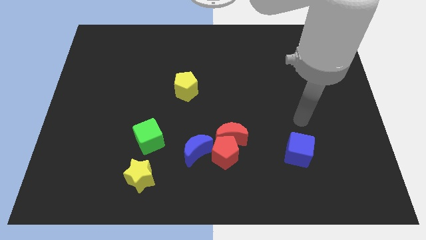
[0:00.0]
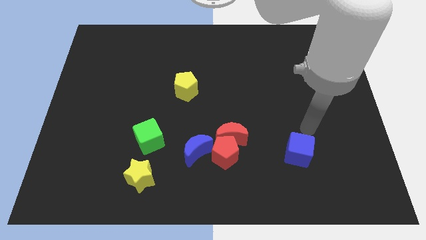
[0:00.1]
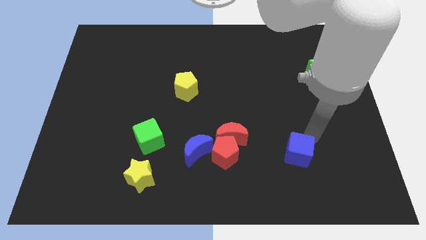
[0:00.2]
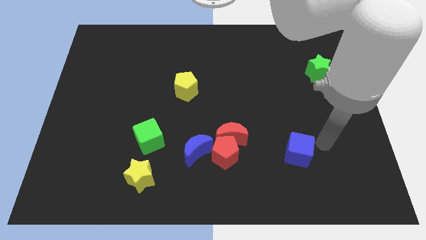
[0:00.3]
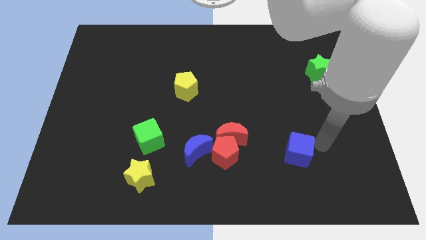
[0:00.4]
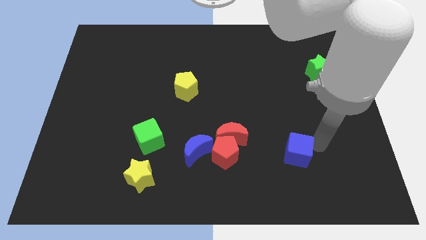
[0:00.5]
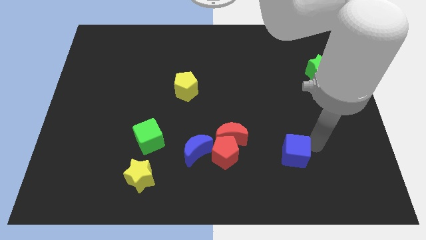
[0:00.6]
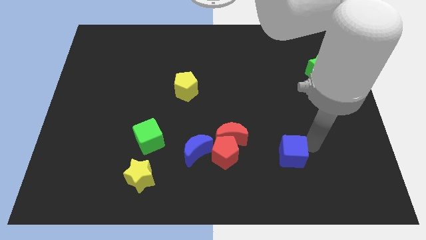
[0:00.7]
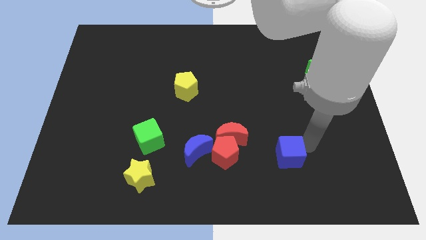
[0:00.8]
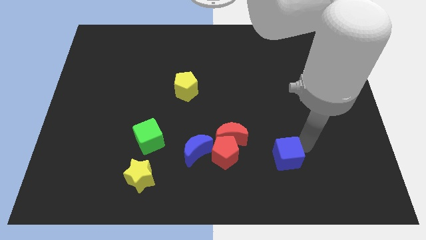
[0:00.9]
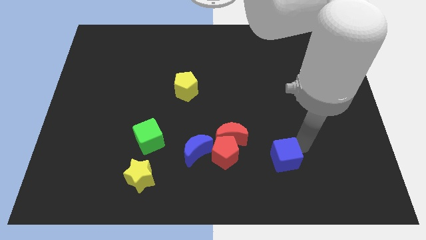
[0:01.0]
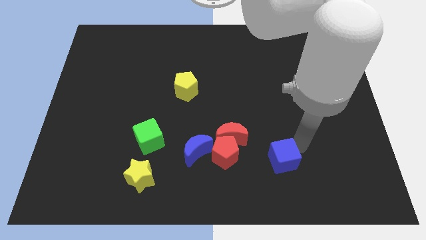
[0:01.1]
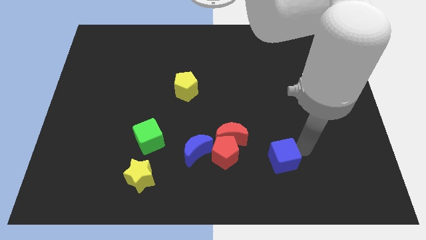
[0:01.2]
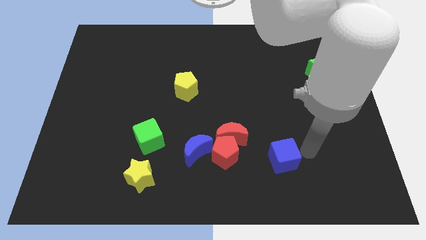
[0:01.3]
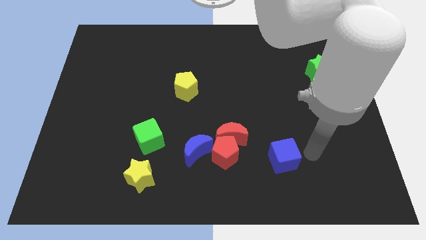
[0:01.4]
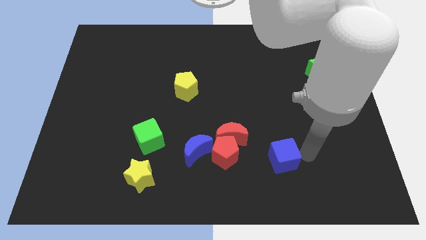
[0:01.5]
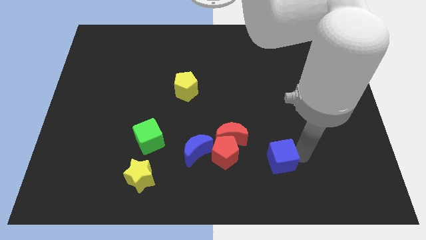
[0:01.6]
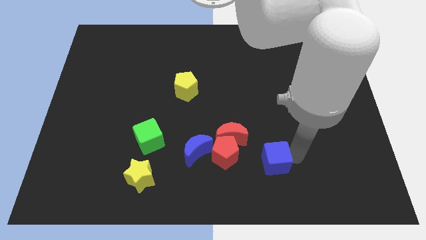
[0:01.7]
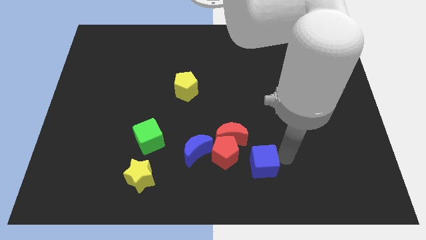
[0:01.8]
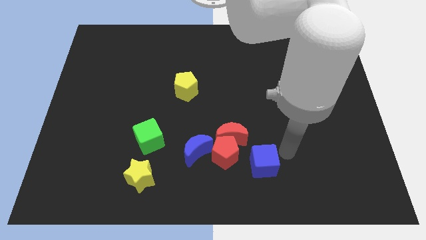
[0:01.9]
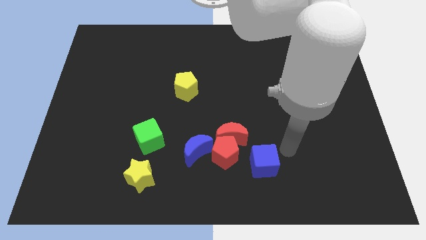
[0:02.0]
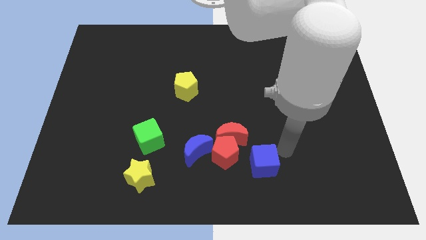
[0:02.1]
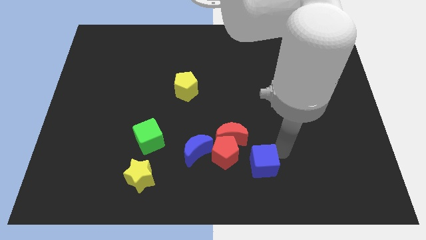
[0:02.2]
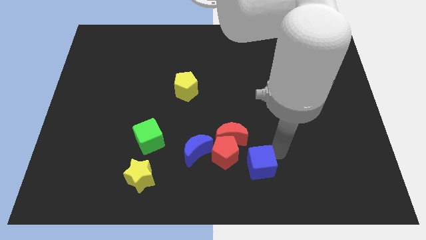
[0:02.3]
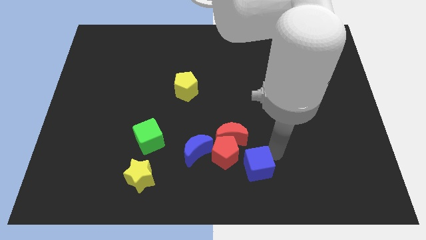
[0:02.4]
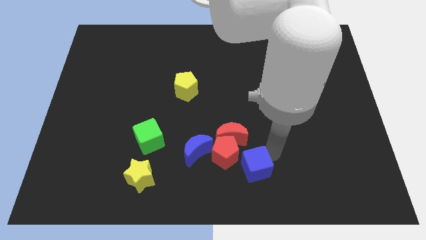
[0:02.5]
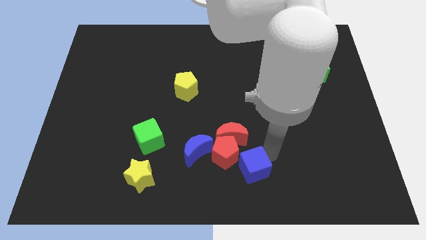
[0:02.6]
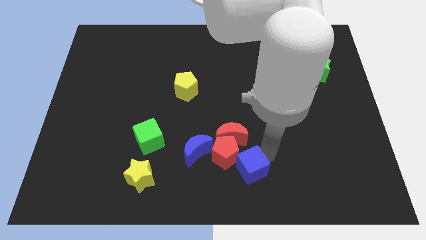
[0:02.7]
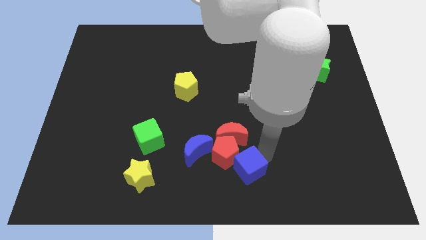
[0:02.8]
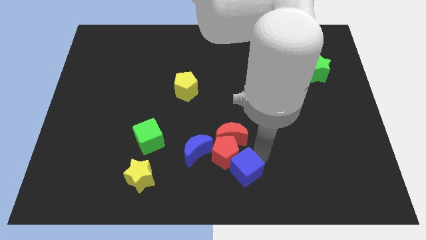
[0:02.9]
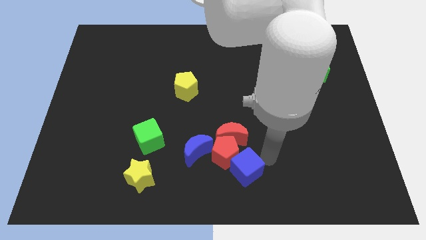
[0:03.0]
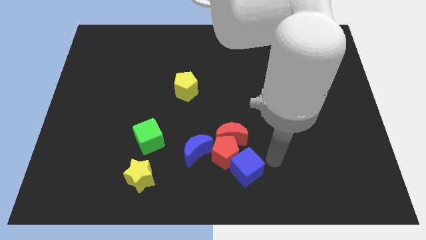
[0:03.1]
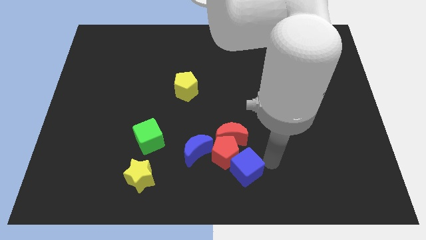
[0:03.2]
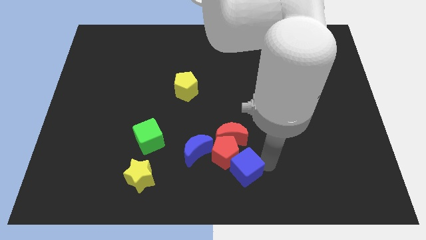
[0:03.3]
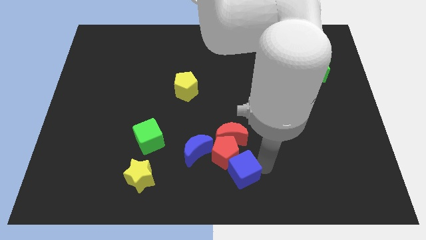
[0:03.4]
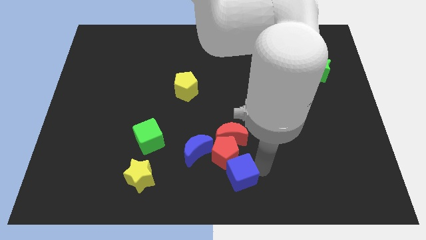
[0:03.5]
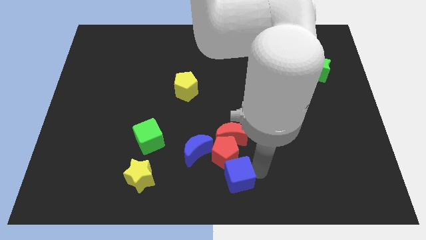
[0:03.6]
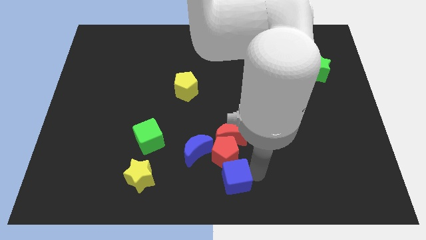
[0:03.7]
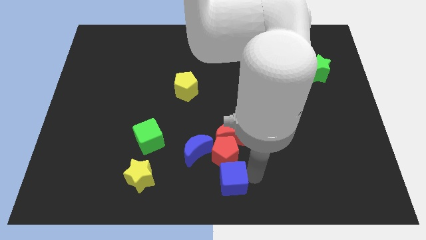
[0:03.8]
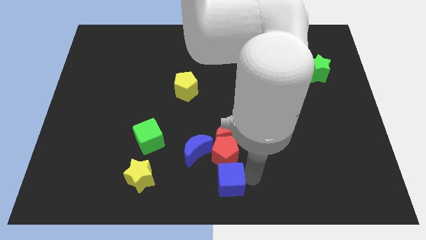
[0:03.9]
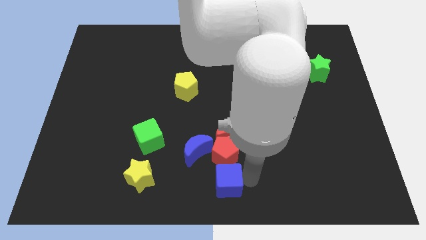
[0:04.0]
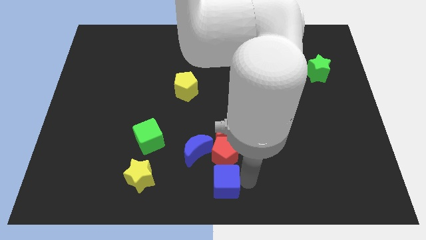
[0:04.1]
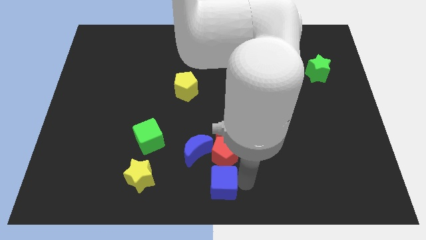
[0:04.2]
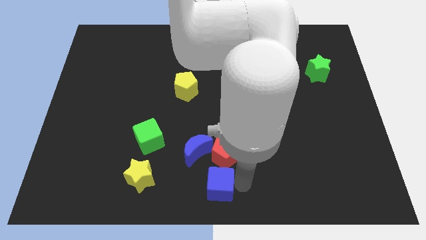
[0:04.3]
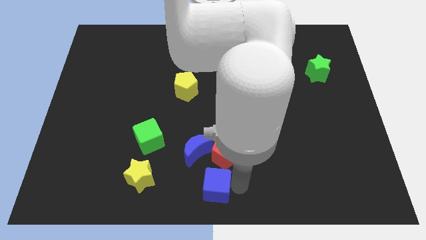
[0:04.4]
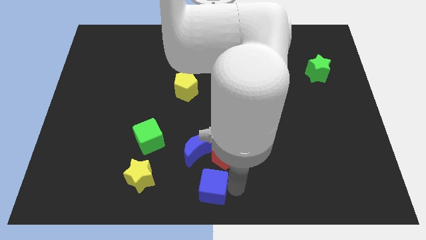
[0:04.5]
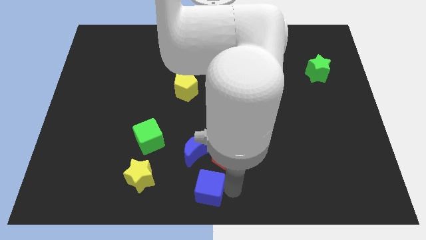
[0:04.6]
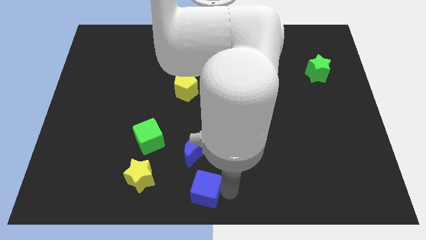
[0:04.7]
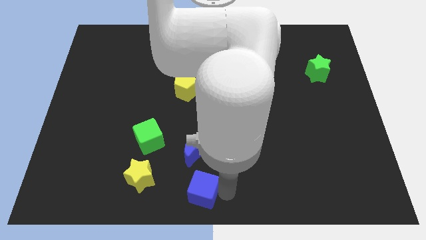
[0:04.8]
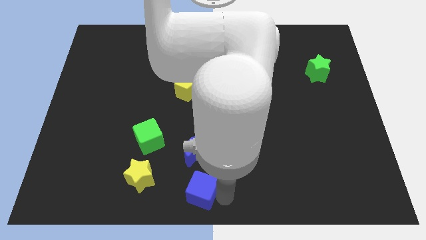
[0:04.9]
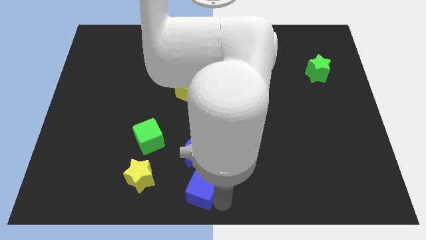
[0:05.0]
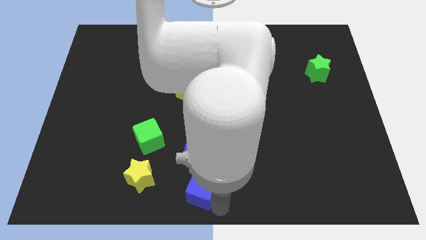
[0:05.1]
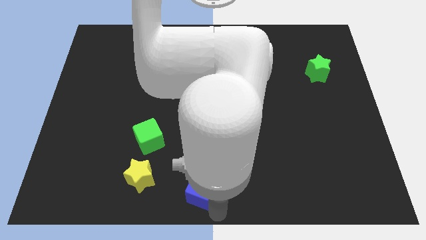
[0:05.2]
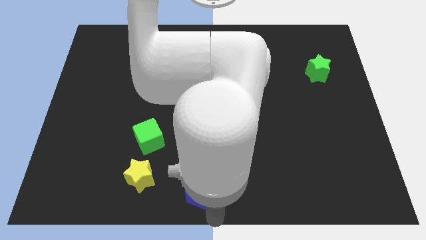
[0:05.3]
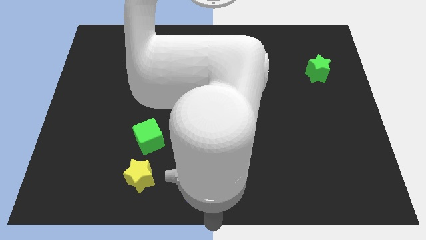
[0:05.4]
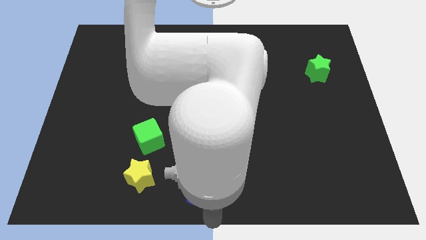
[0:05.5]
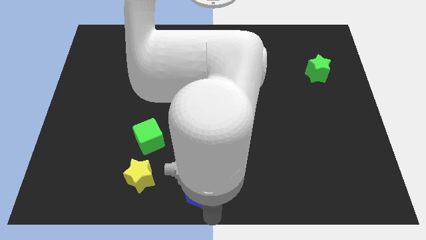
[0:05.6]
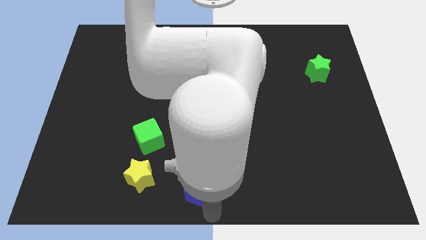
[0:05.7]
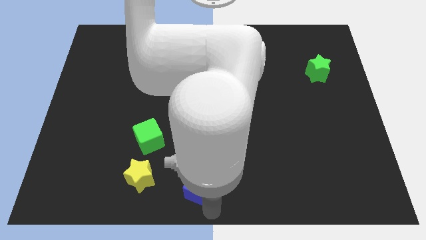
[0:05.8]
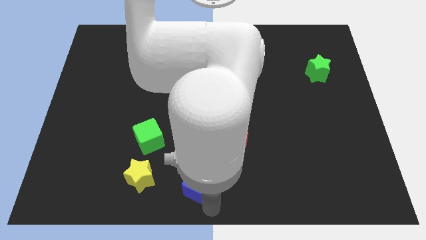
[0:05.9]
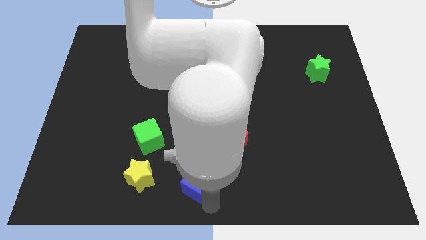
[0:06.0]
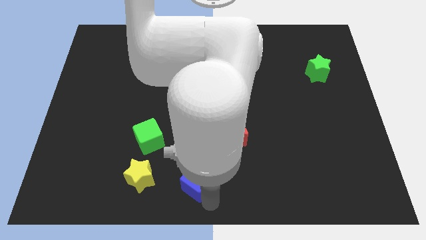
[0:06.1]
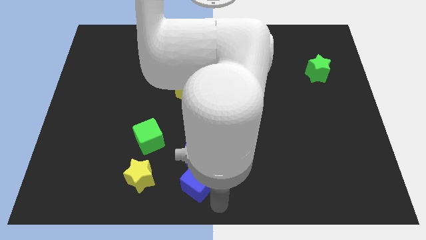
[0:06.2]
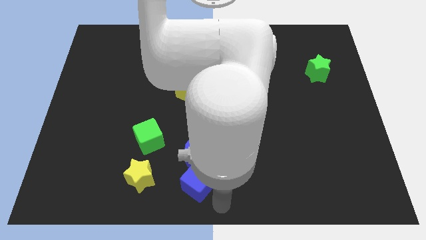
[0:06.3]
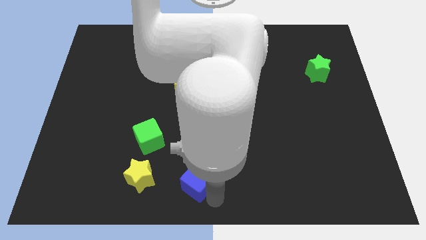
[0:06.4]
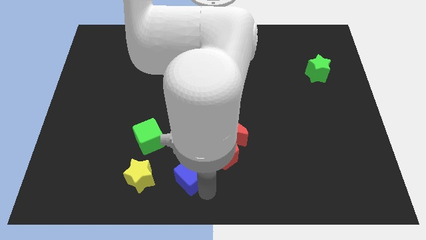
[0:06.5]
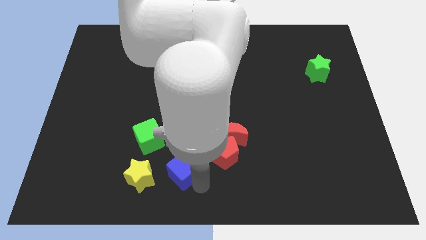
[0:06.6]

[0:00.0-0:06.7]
put the blue cube to the bottom right of the green cube

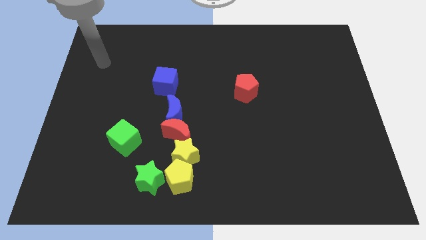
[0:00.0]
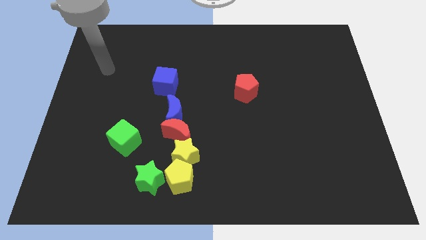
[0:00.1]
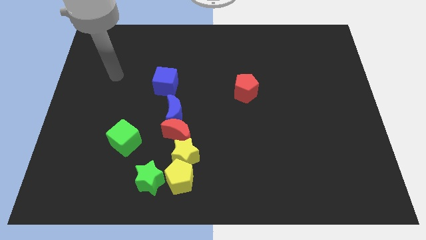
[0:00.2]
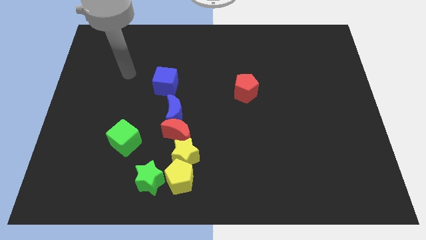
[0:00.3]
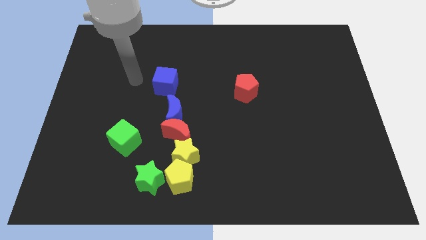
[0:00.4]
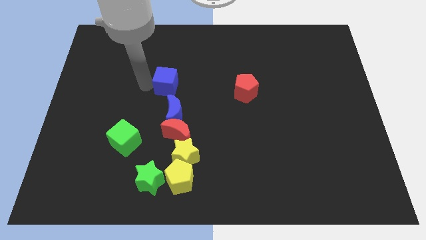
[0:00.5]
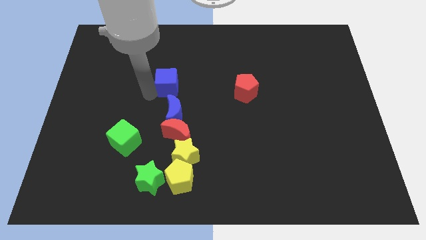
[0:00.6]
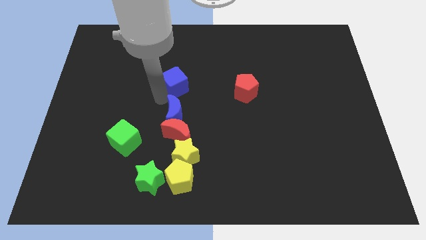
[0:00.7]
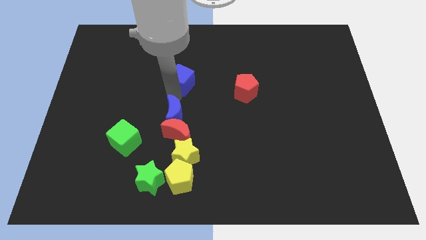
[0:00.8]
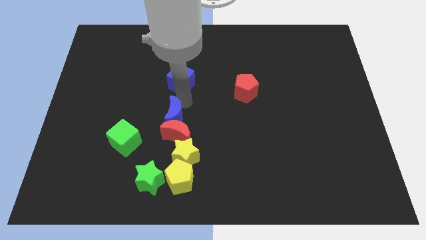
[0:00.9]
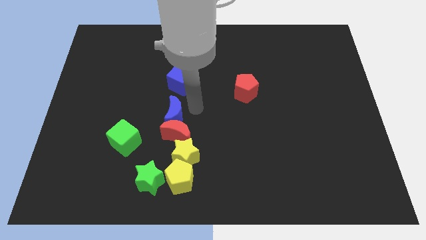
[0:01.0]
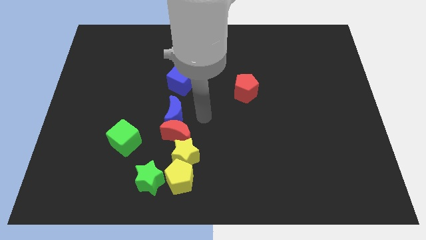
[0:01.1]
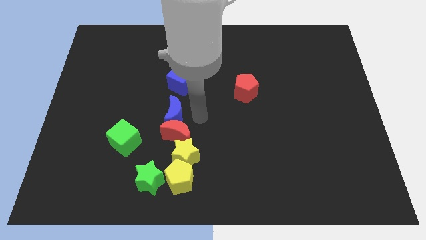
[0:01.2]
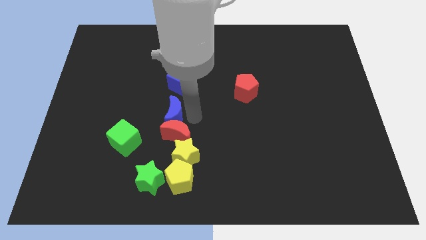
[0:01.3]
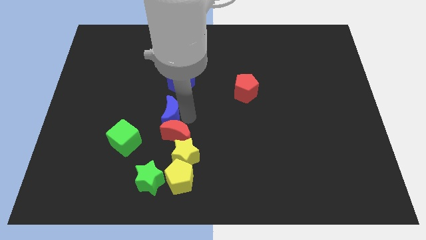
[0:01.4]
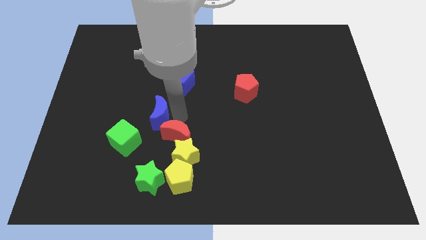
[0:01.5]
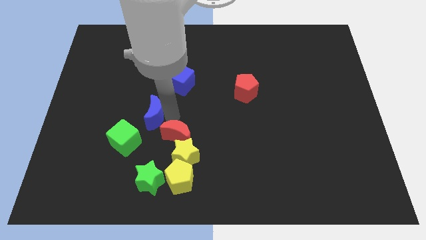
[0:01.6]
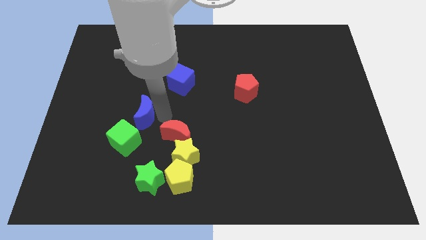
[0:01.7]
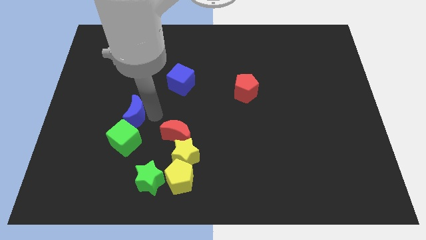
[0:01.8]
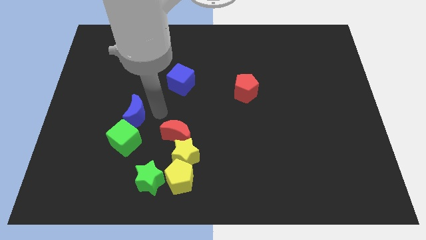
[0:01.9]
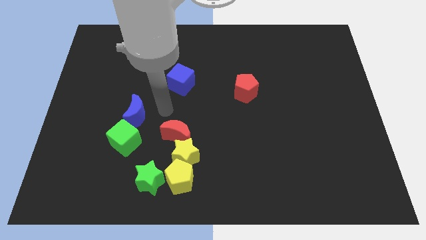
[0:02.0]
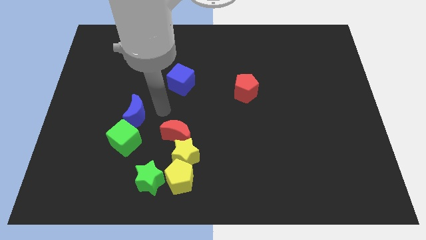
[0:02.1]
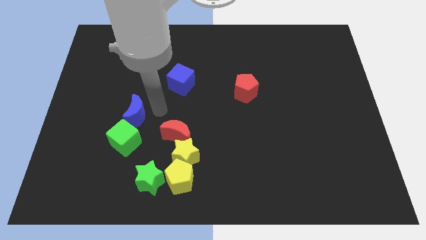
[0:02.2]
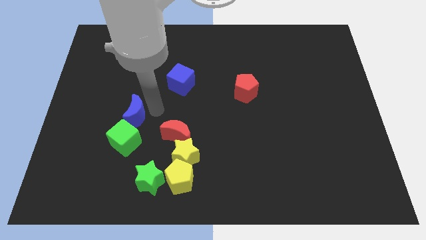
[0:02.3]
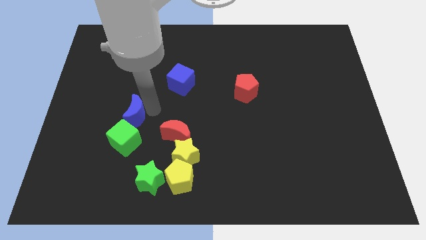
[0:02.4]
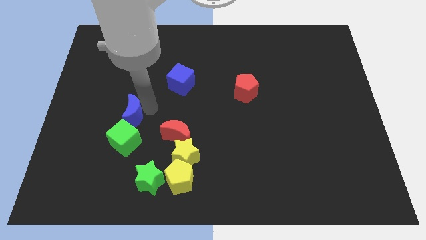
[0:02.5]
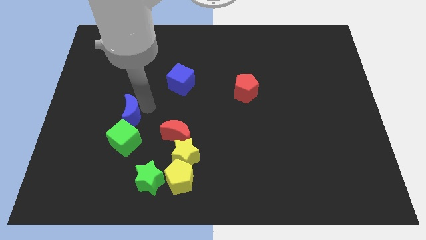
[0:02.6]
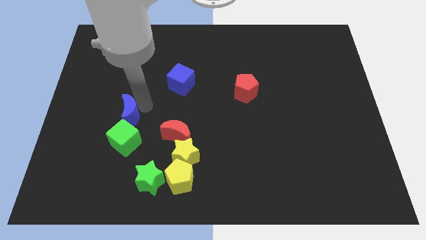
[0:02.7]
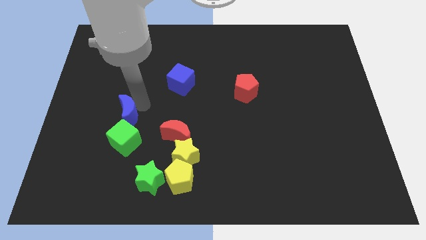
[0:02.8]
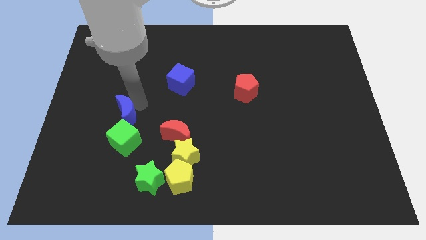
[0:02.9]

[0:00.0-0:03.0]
slide the blue moon to the top left side of the green cube
